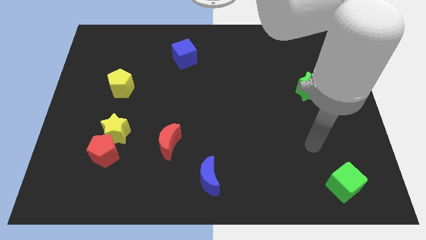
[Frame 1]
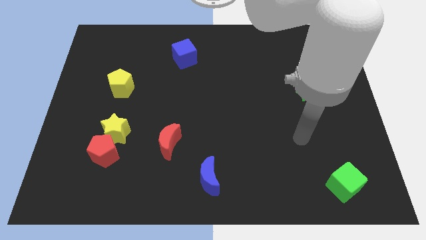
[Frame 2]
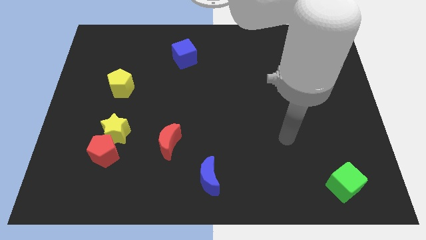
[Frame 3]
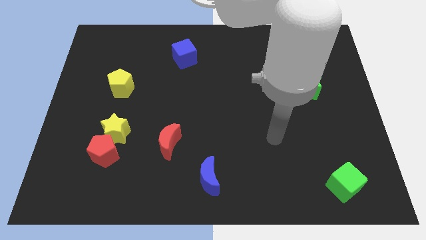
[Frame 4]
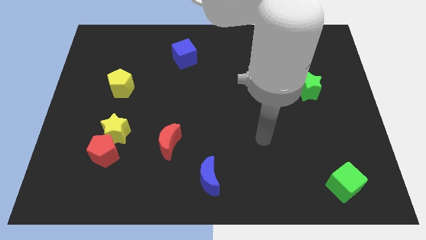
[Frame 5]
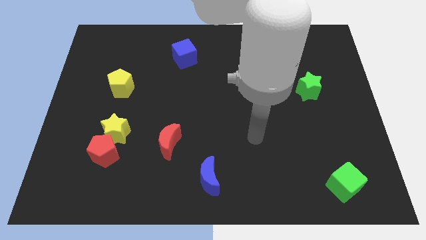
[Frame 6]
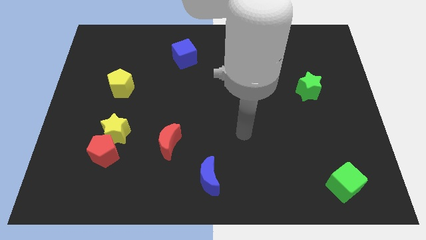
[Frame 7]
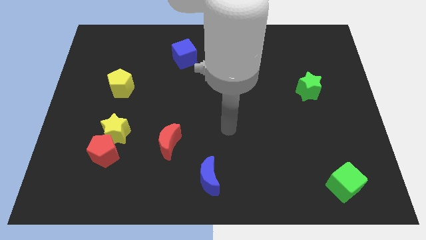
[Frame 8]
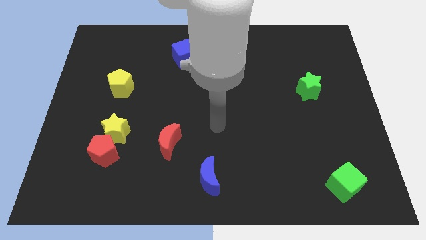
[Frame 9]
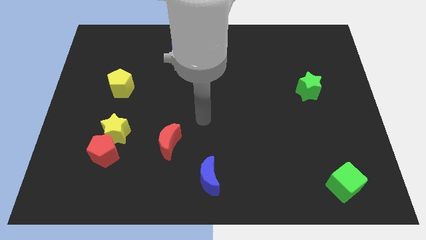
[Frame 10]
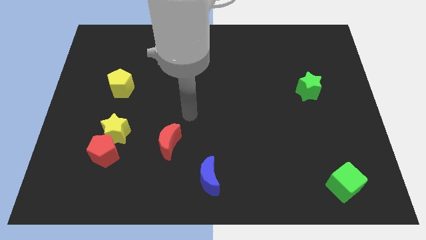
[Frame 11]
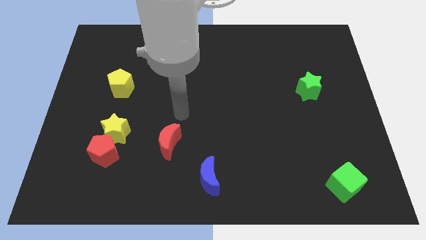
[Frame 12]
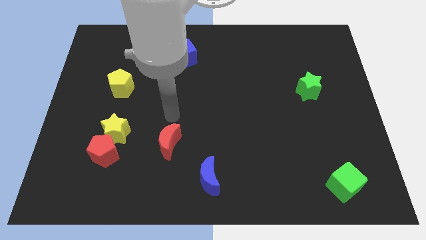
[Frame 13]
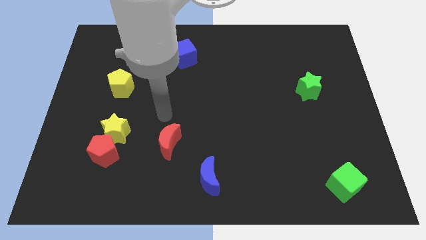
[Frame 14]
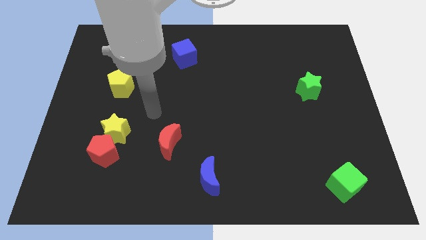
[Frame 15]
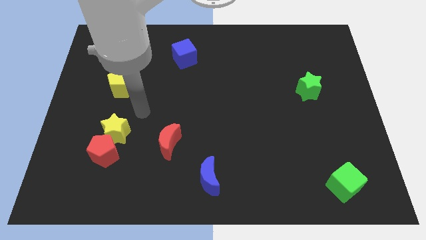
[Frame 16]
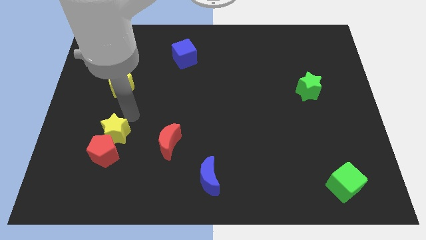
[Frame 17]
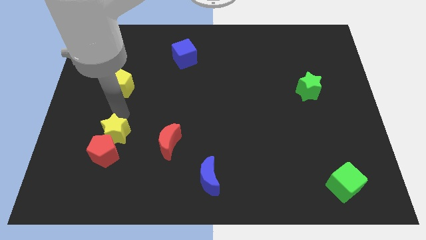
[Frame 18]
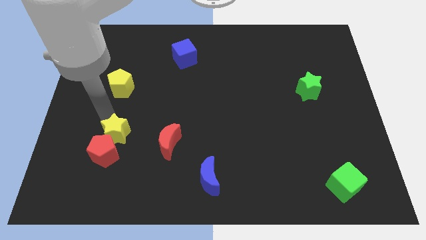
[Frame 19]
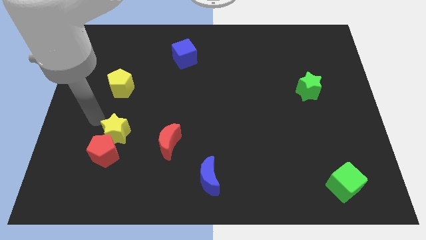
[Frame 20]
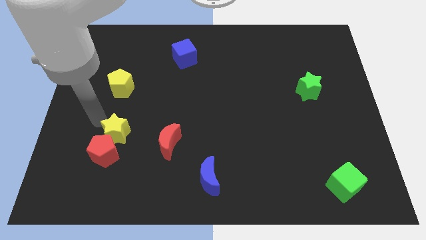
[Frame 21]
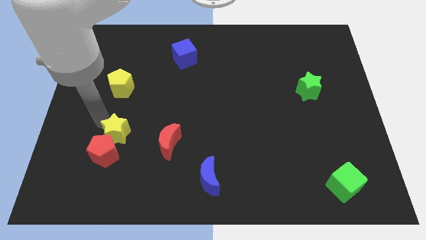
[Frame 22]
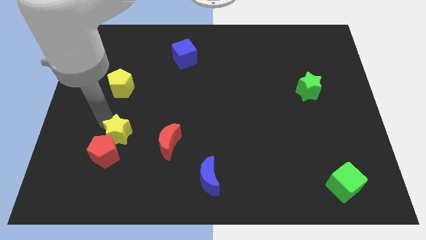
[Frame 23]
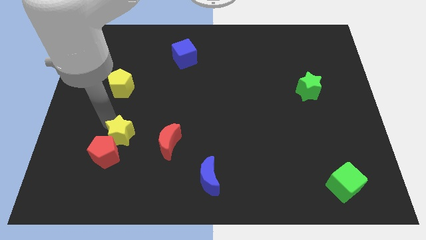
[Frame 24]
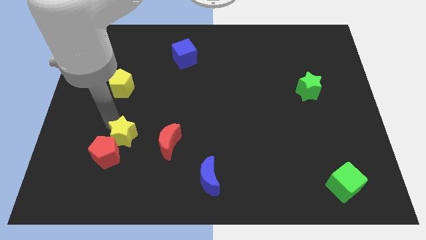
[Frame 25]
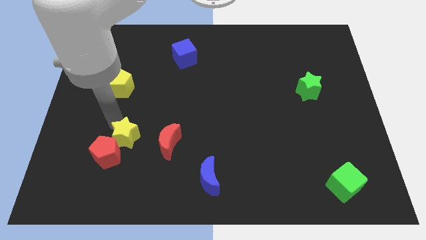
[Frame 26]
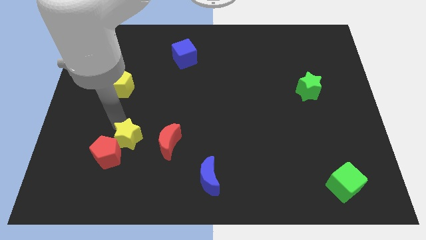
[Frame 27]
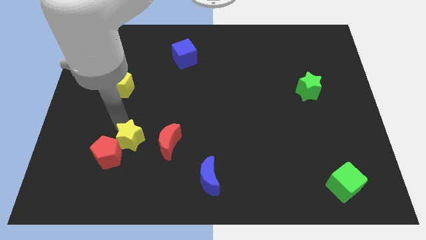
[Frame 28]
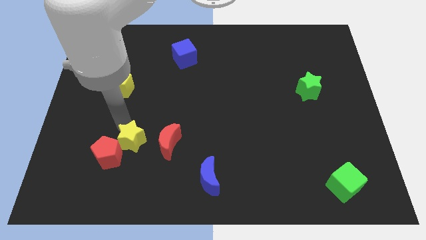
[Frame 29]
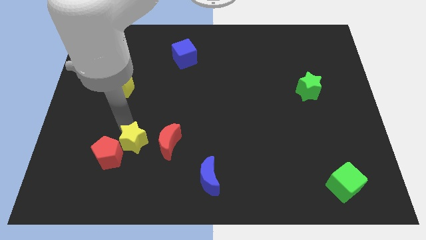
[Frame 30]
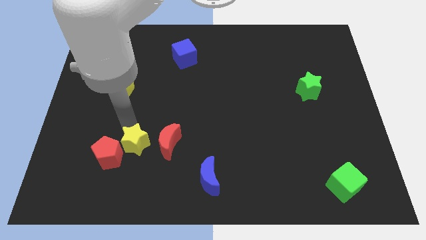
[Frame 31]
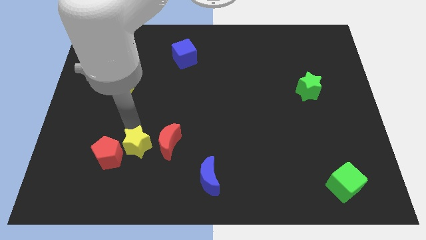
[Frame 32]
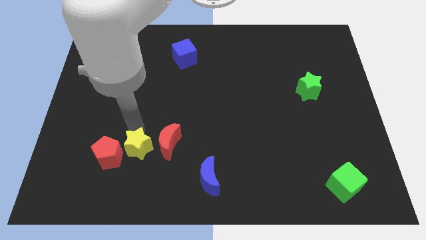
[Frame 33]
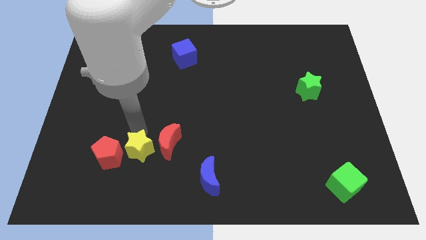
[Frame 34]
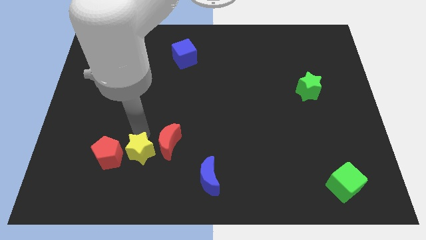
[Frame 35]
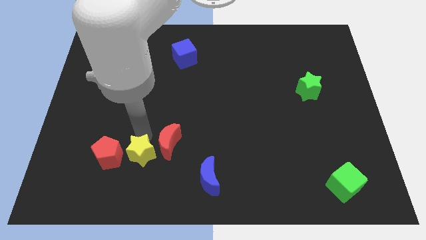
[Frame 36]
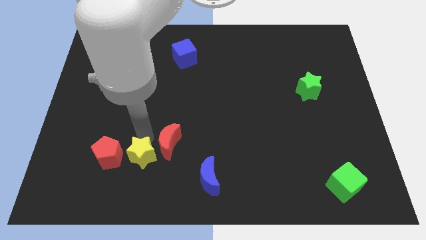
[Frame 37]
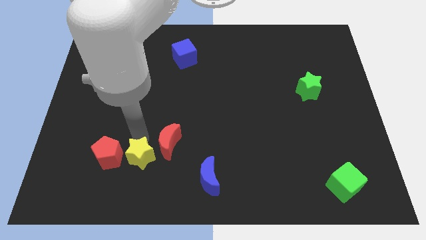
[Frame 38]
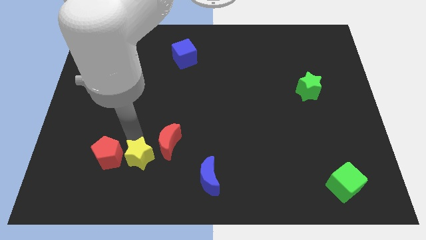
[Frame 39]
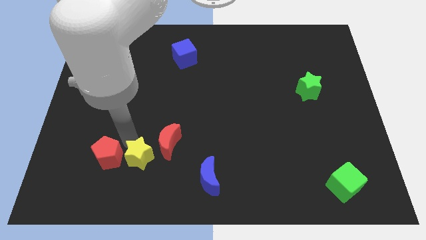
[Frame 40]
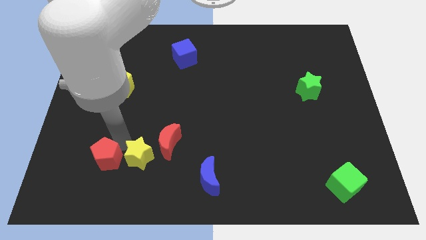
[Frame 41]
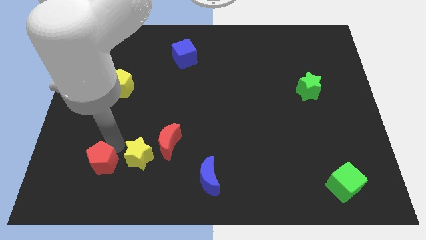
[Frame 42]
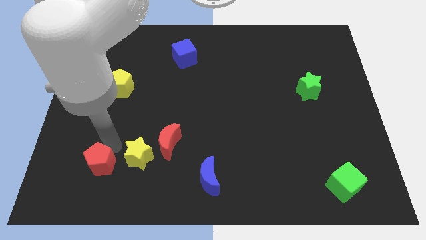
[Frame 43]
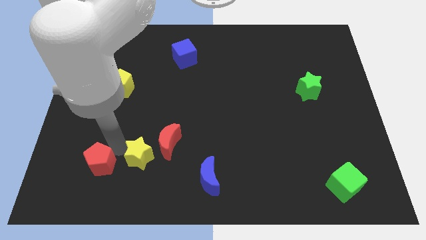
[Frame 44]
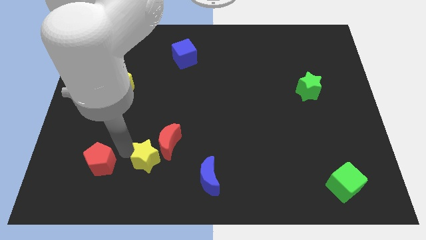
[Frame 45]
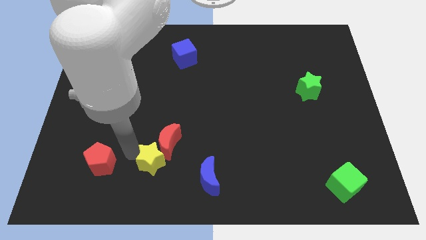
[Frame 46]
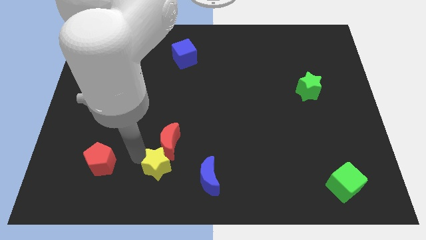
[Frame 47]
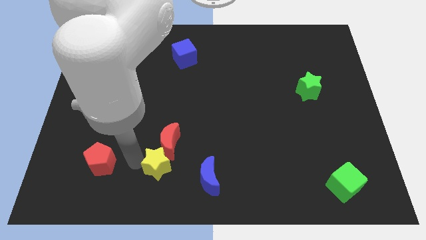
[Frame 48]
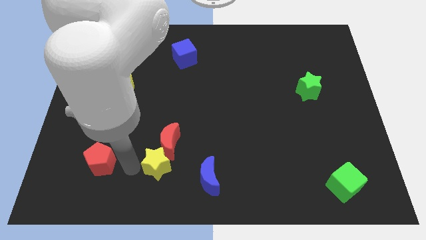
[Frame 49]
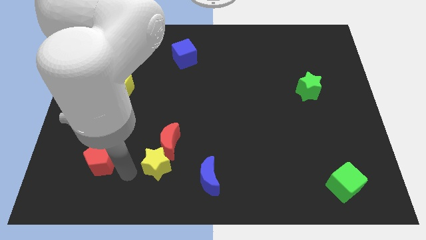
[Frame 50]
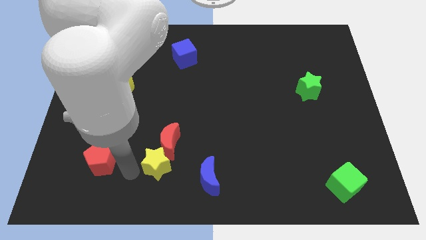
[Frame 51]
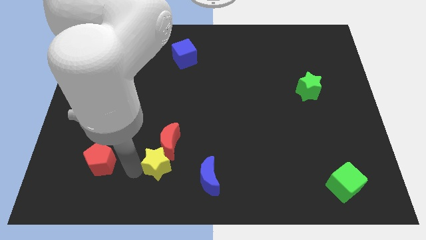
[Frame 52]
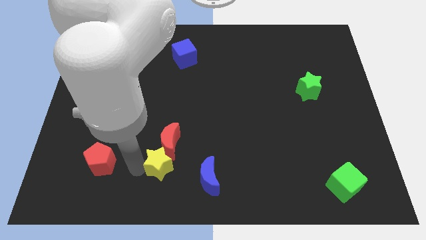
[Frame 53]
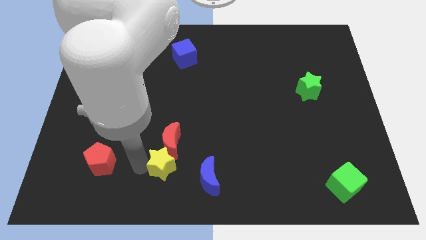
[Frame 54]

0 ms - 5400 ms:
put the yellow star diagonally up and to the left of the blue moon

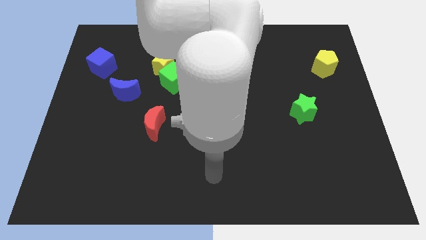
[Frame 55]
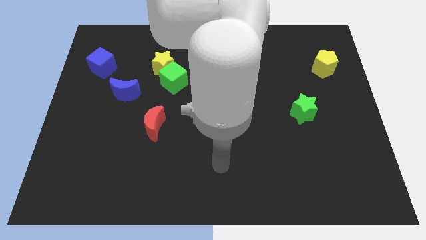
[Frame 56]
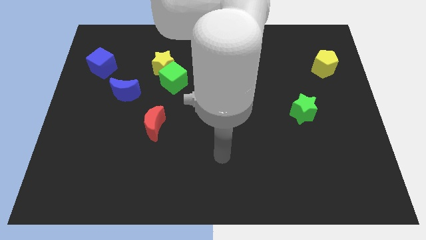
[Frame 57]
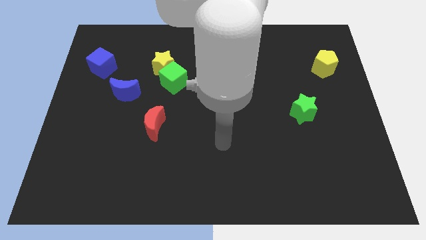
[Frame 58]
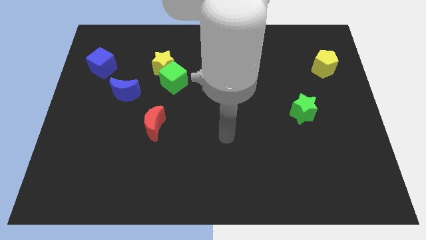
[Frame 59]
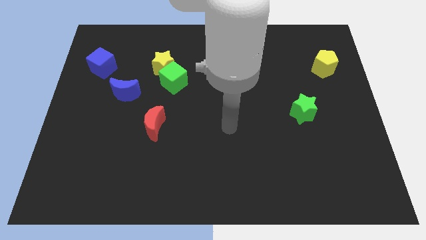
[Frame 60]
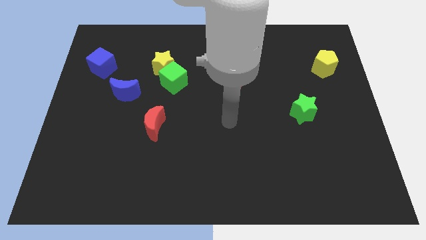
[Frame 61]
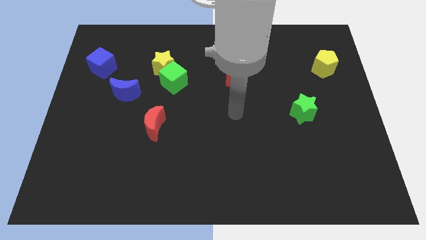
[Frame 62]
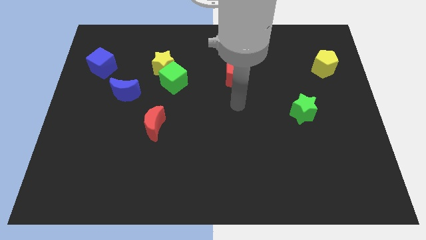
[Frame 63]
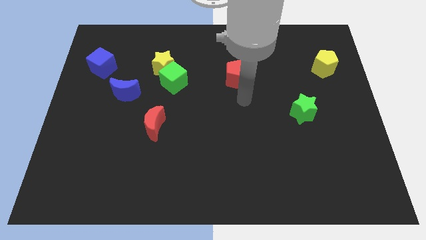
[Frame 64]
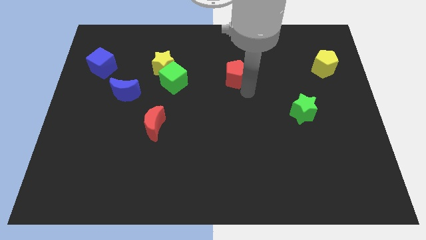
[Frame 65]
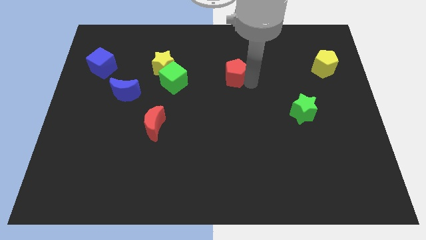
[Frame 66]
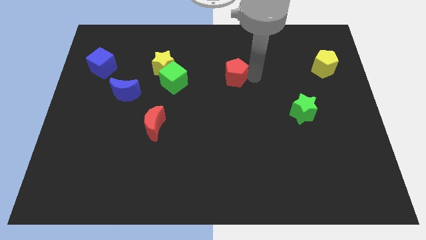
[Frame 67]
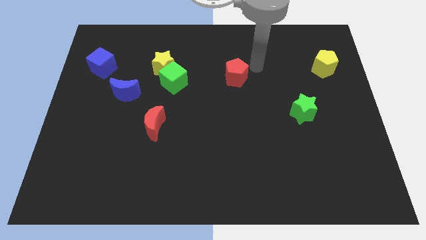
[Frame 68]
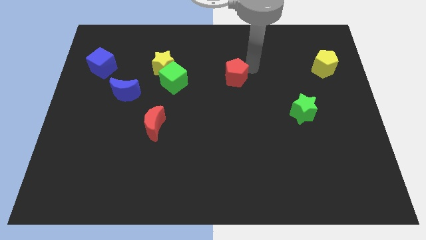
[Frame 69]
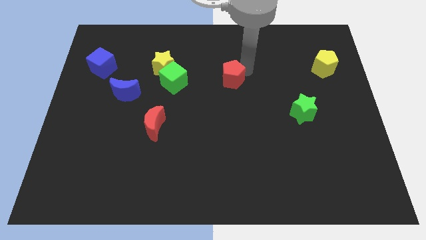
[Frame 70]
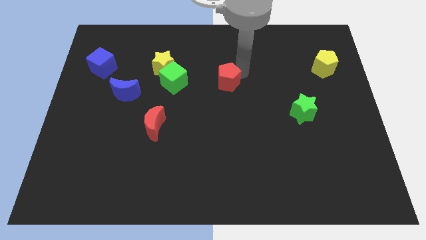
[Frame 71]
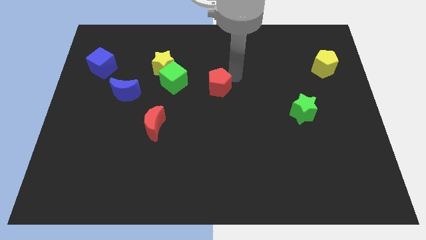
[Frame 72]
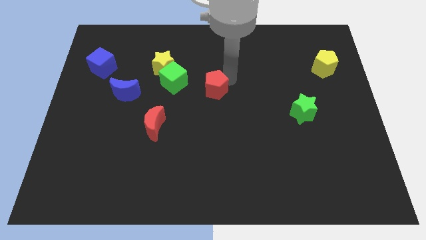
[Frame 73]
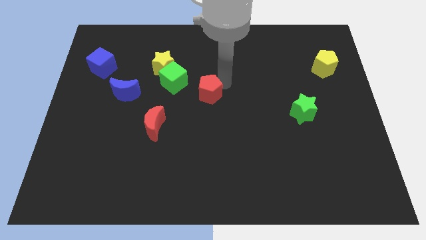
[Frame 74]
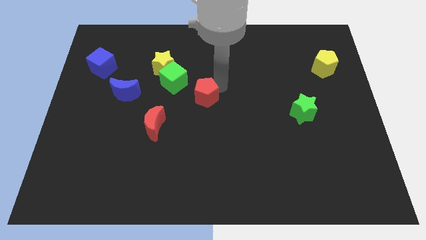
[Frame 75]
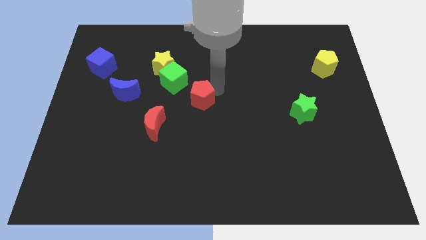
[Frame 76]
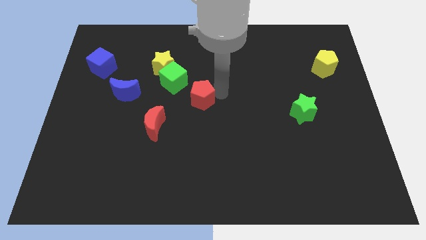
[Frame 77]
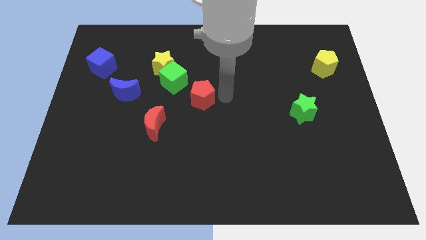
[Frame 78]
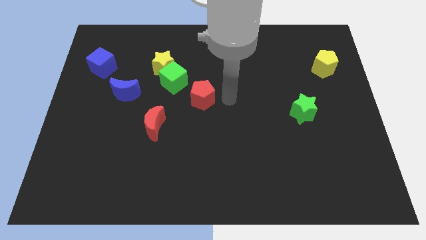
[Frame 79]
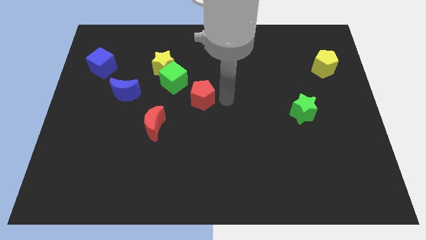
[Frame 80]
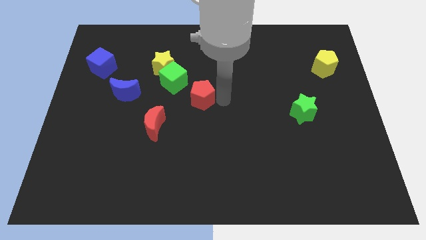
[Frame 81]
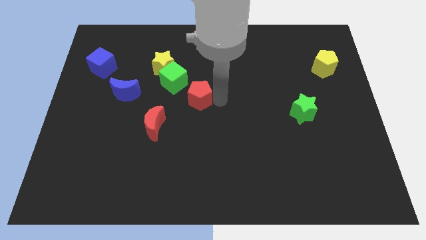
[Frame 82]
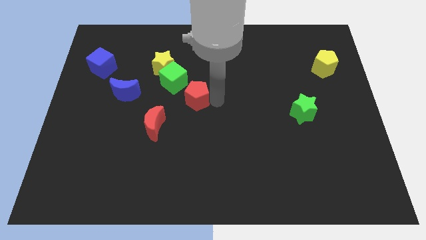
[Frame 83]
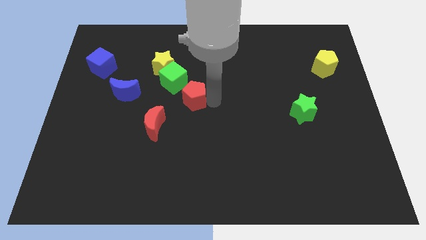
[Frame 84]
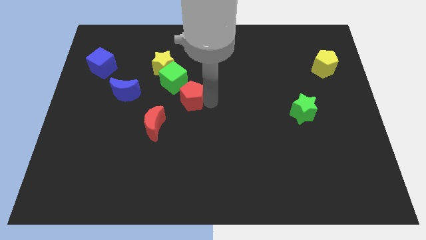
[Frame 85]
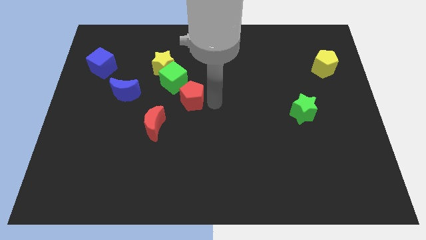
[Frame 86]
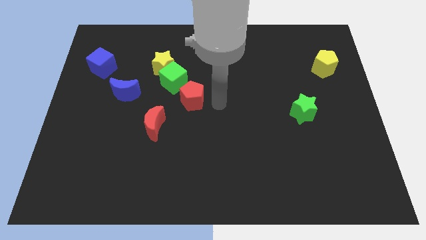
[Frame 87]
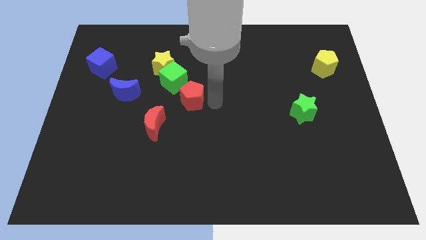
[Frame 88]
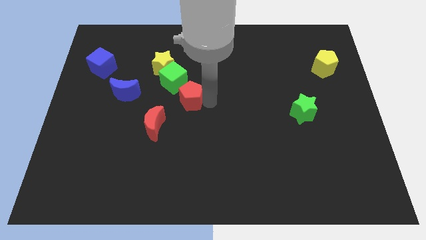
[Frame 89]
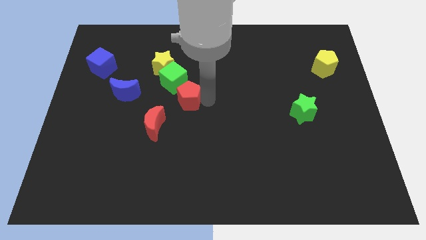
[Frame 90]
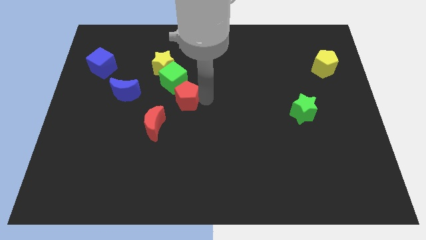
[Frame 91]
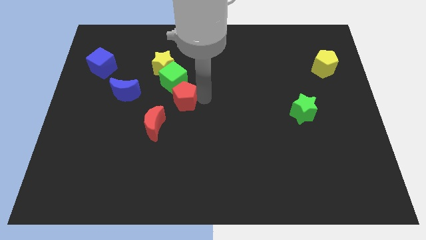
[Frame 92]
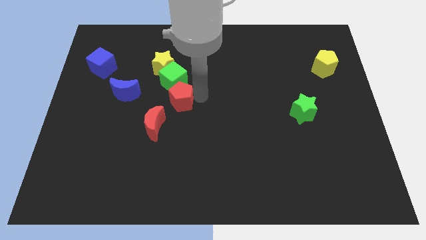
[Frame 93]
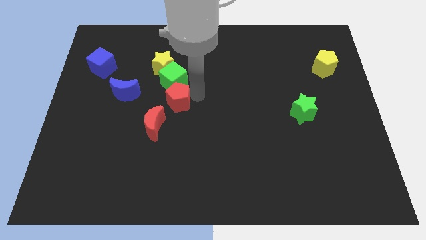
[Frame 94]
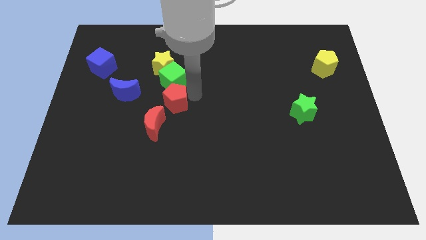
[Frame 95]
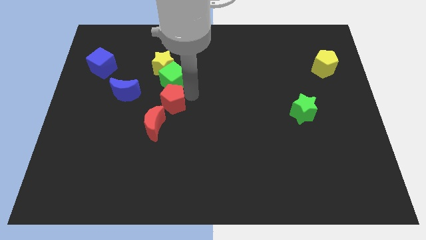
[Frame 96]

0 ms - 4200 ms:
push the red pentagon diagonally down and to the left of the green cube
